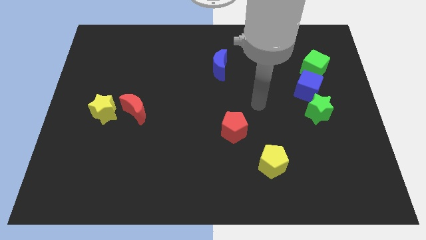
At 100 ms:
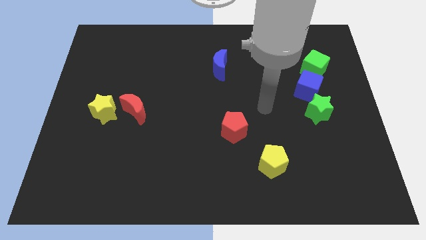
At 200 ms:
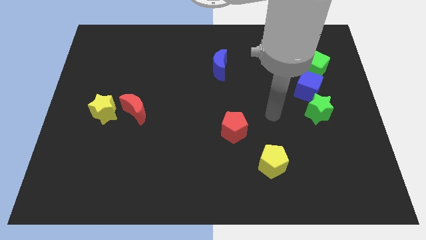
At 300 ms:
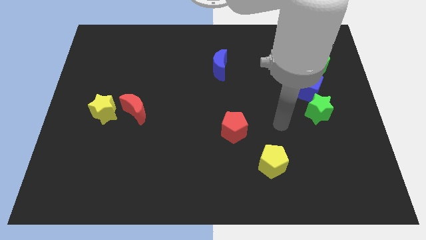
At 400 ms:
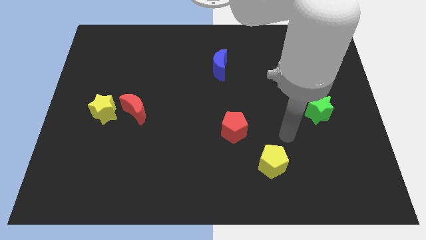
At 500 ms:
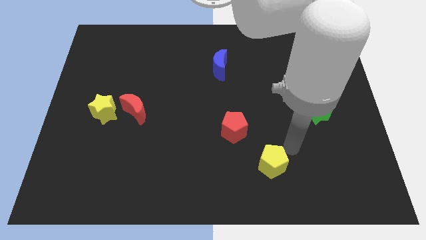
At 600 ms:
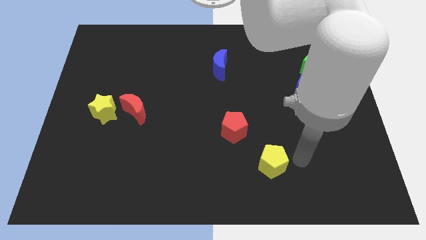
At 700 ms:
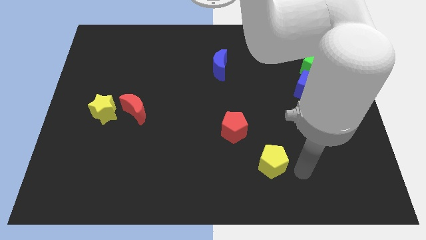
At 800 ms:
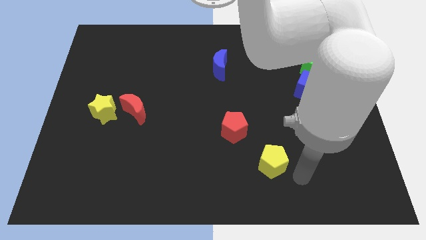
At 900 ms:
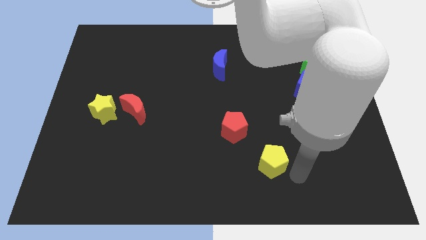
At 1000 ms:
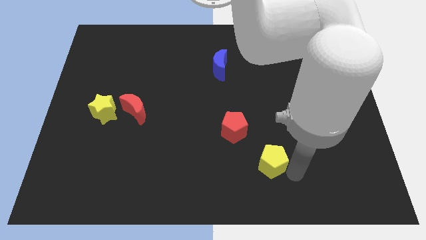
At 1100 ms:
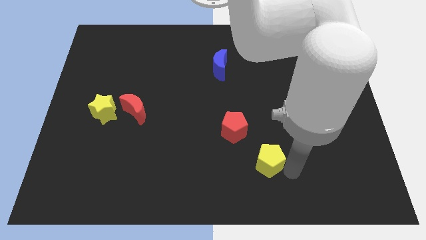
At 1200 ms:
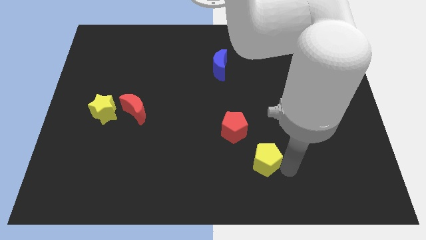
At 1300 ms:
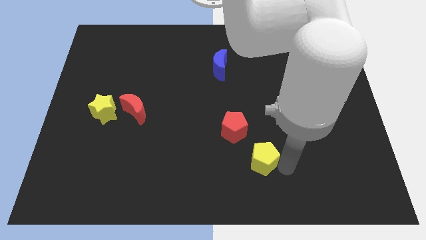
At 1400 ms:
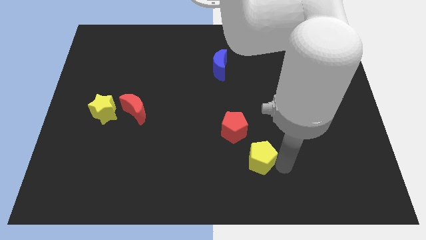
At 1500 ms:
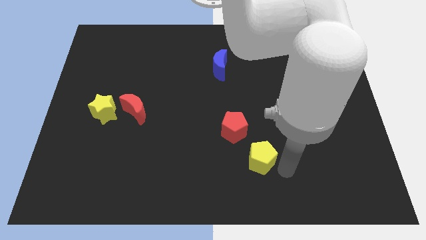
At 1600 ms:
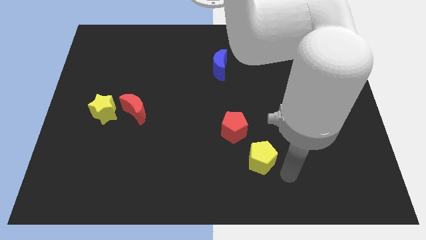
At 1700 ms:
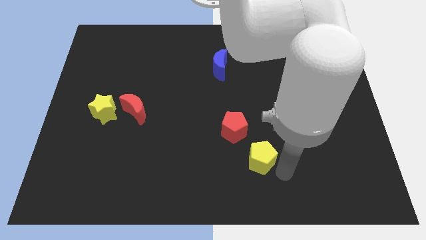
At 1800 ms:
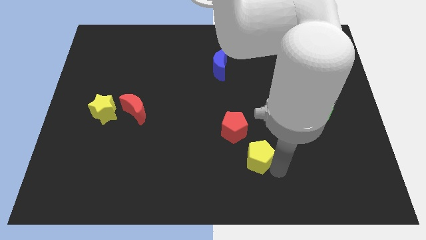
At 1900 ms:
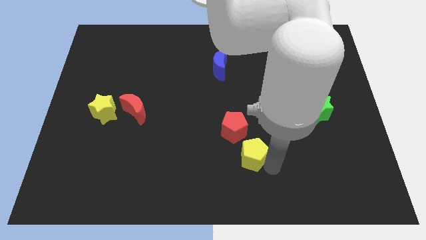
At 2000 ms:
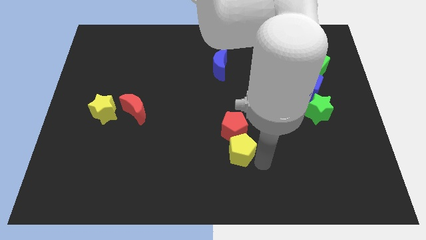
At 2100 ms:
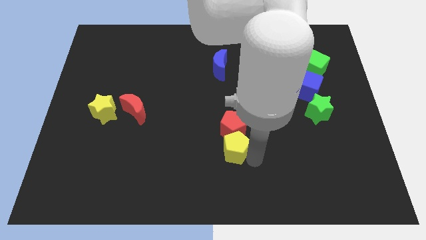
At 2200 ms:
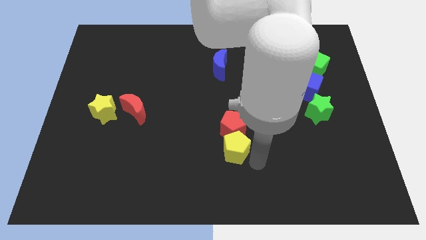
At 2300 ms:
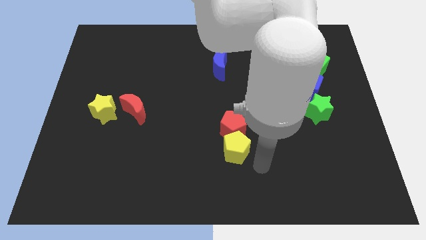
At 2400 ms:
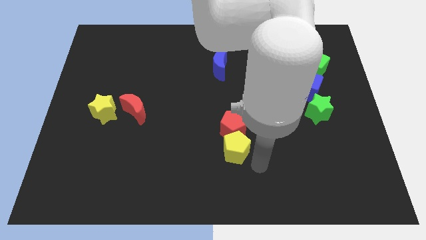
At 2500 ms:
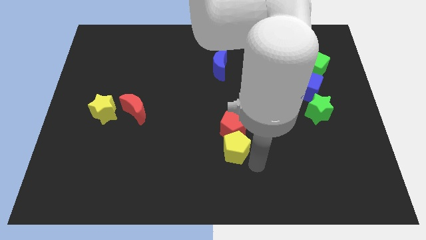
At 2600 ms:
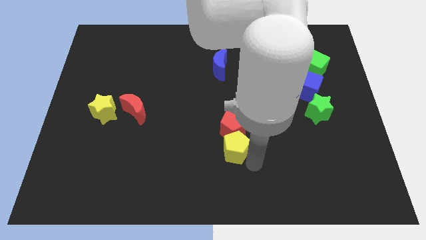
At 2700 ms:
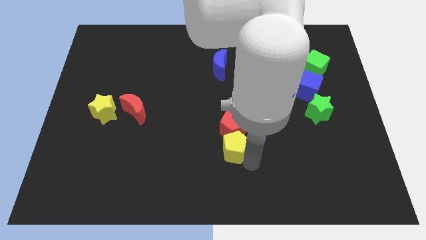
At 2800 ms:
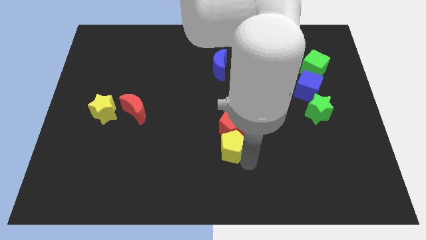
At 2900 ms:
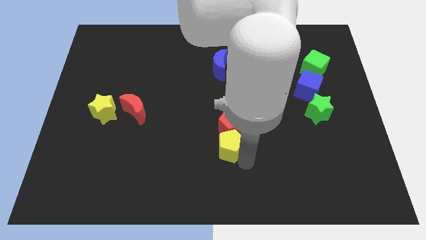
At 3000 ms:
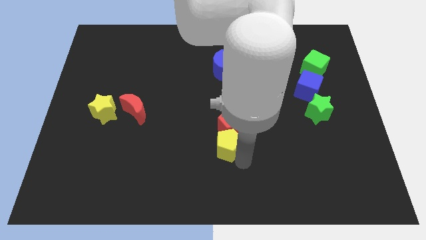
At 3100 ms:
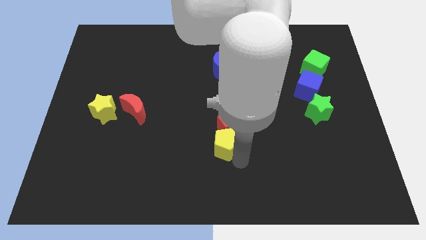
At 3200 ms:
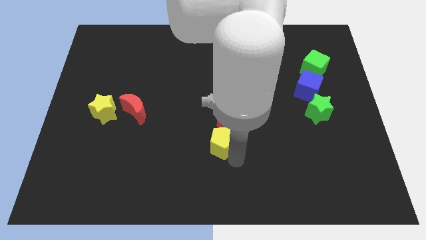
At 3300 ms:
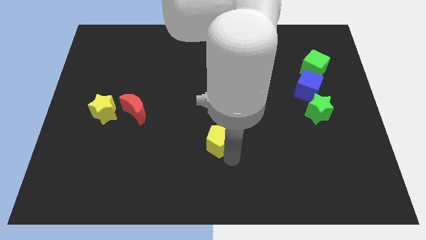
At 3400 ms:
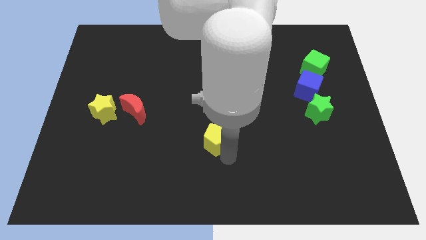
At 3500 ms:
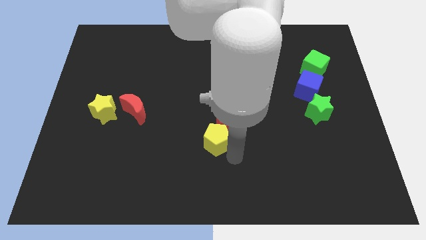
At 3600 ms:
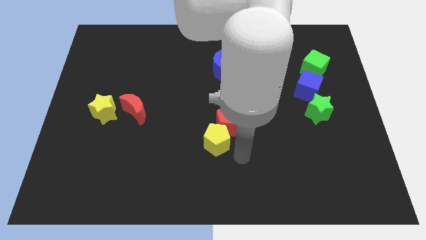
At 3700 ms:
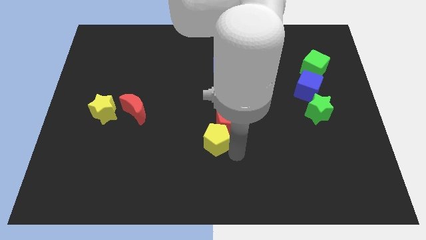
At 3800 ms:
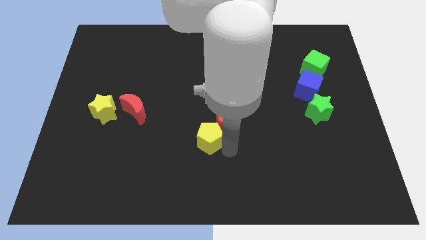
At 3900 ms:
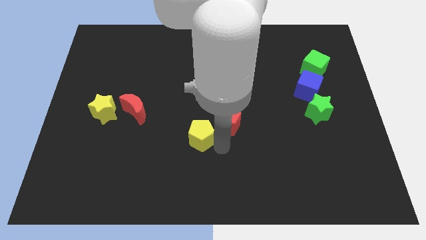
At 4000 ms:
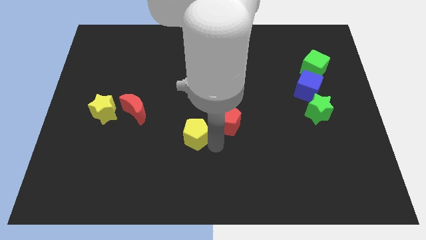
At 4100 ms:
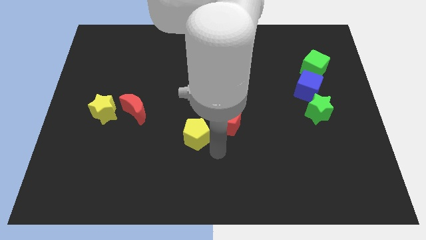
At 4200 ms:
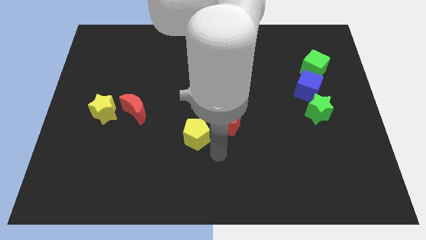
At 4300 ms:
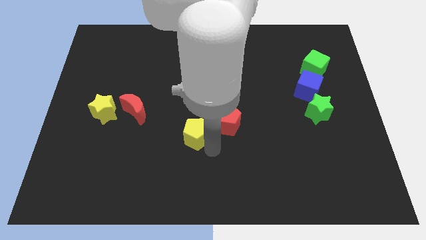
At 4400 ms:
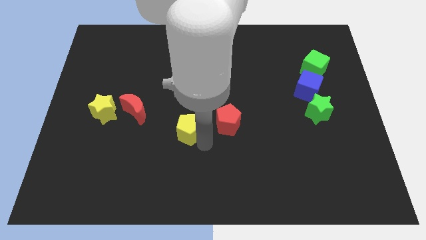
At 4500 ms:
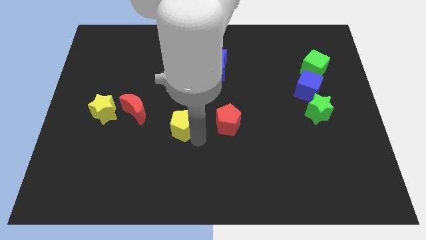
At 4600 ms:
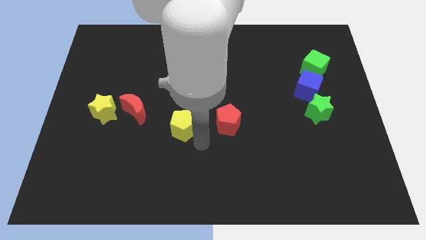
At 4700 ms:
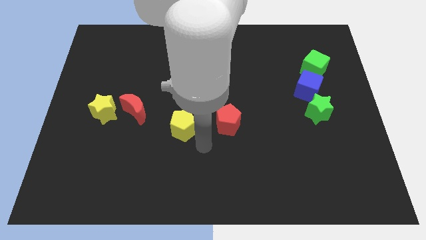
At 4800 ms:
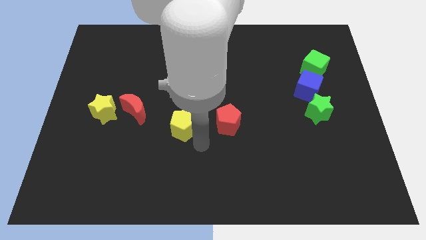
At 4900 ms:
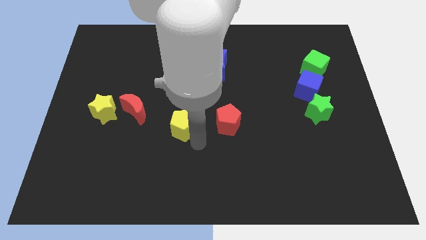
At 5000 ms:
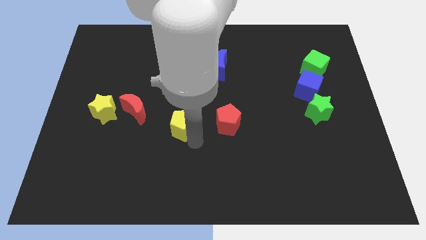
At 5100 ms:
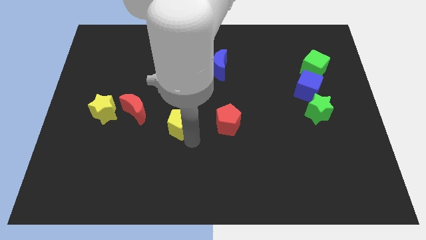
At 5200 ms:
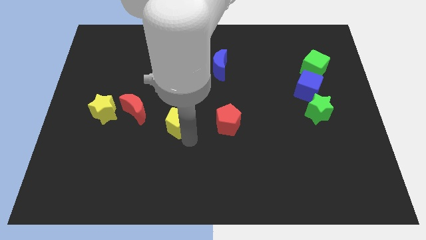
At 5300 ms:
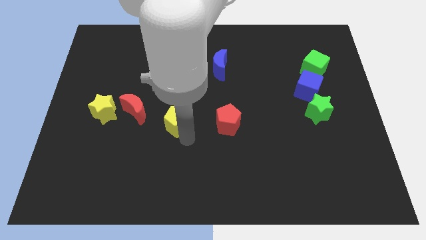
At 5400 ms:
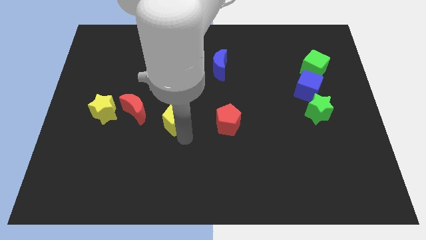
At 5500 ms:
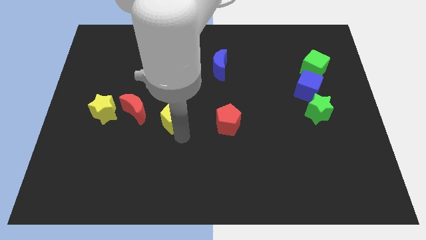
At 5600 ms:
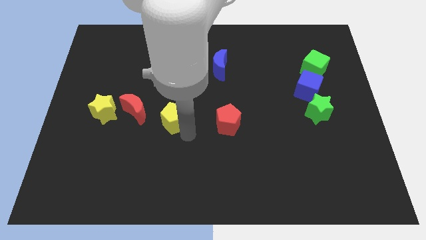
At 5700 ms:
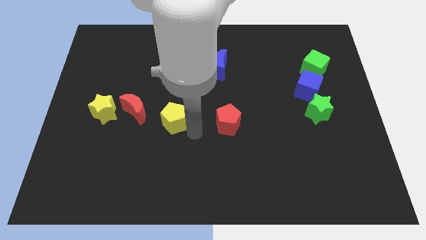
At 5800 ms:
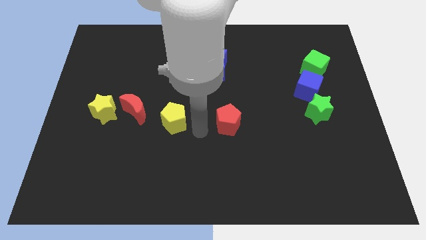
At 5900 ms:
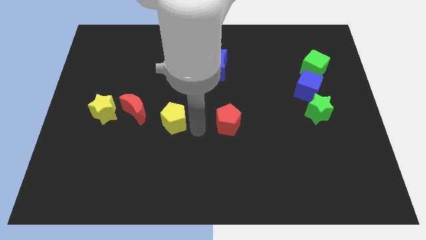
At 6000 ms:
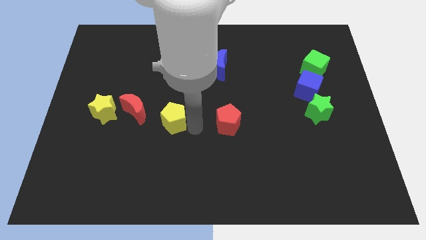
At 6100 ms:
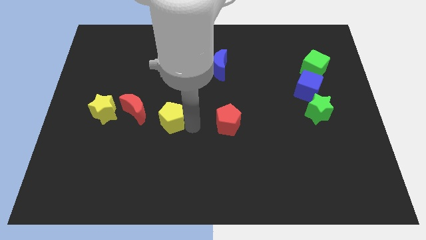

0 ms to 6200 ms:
move the yellow pentagon to the right of the yellow star
